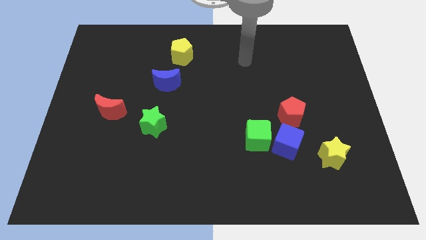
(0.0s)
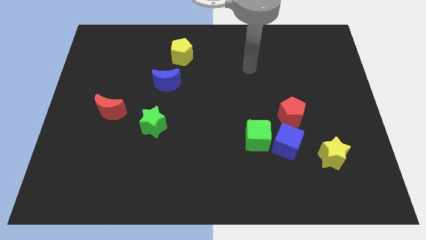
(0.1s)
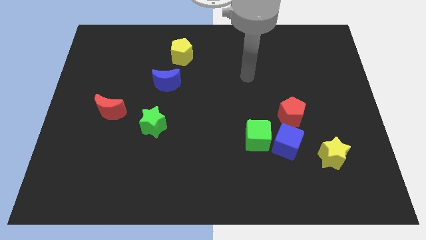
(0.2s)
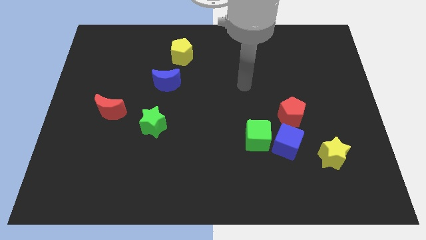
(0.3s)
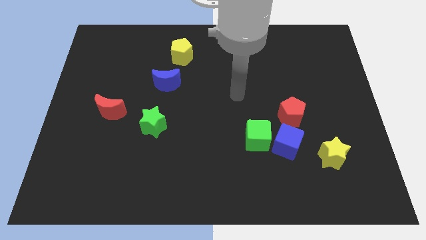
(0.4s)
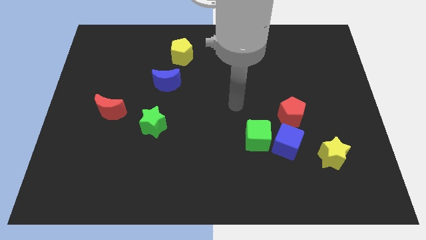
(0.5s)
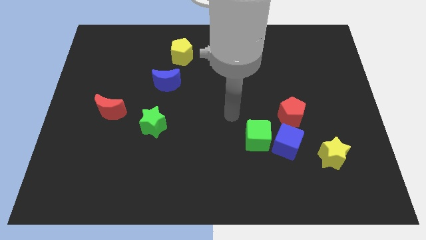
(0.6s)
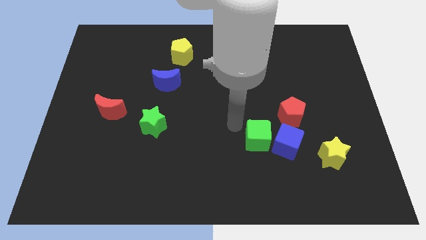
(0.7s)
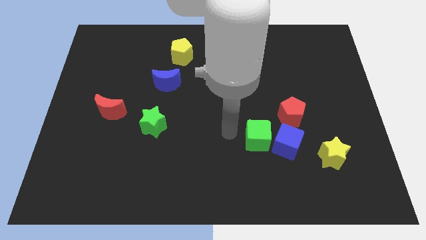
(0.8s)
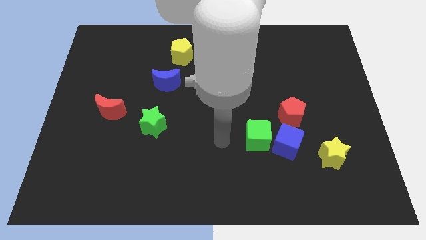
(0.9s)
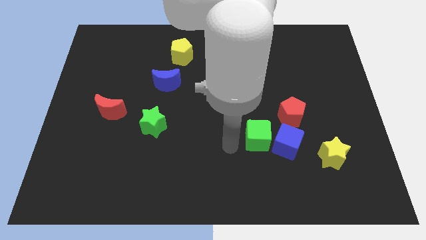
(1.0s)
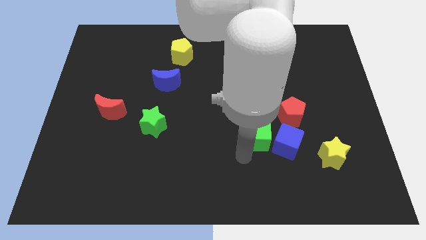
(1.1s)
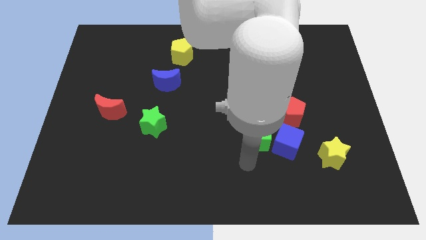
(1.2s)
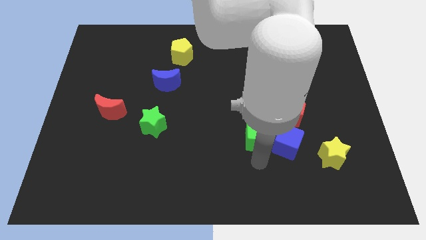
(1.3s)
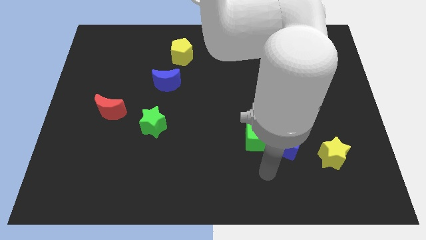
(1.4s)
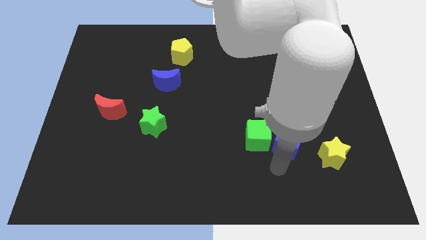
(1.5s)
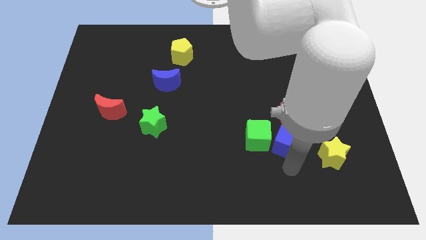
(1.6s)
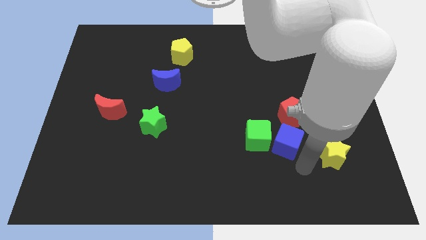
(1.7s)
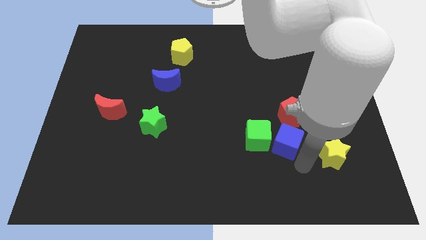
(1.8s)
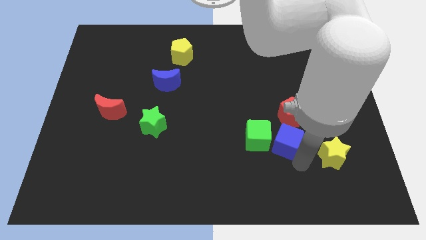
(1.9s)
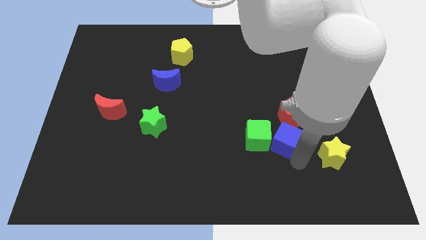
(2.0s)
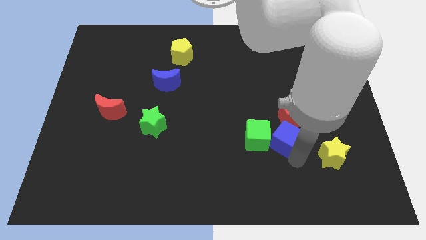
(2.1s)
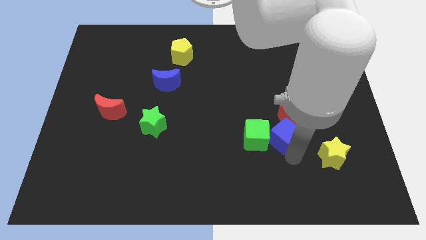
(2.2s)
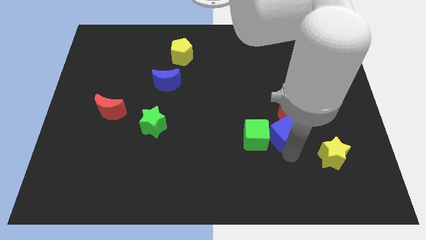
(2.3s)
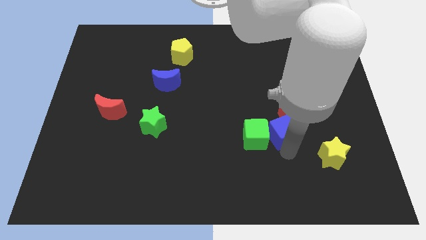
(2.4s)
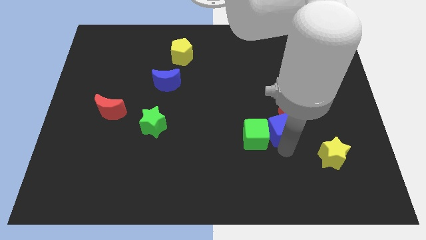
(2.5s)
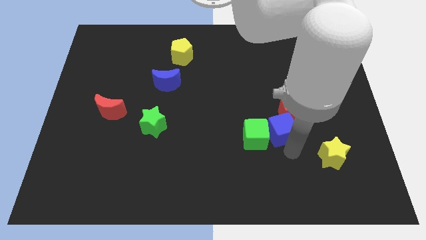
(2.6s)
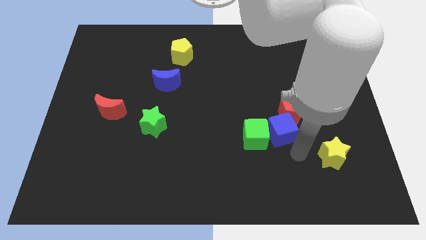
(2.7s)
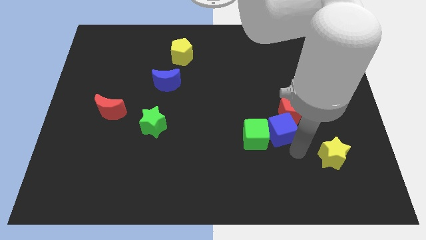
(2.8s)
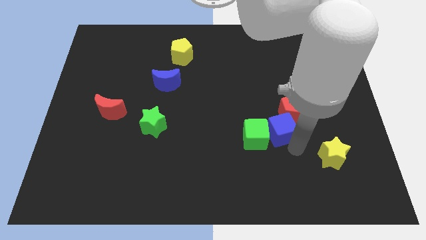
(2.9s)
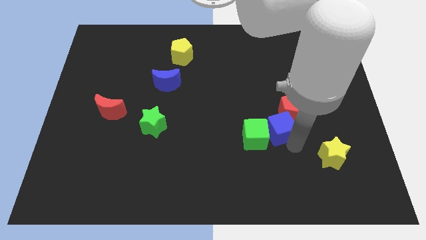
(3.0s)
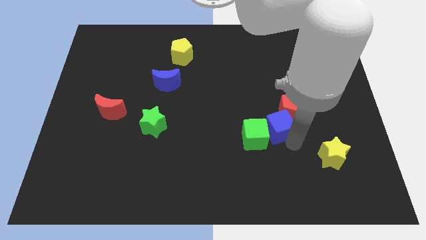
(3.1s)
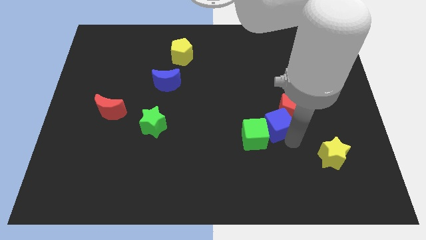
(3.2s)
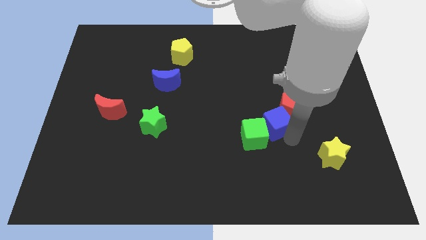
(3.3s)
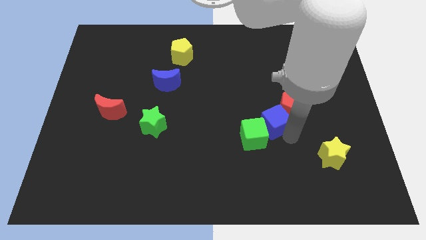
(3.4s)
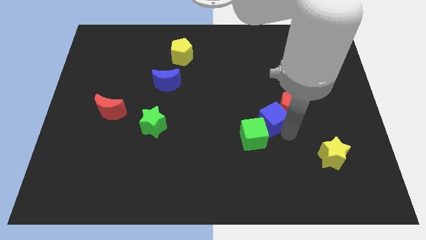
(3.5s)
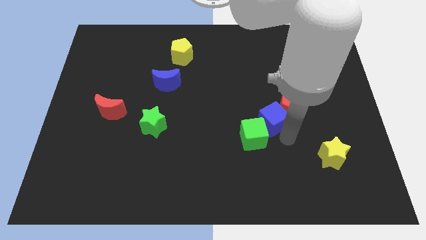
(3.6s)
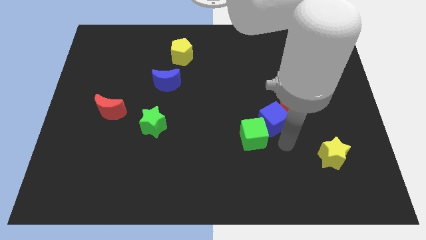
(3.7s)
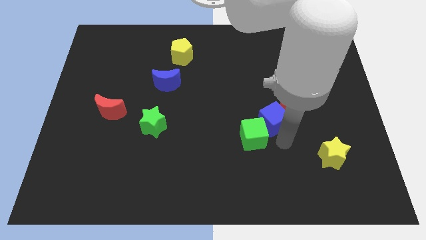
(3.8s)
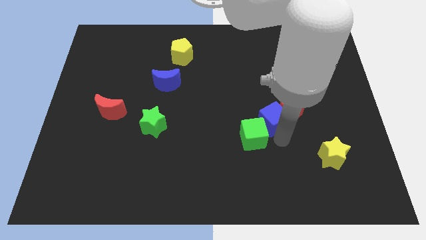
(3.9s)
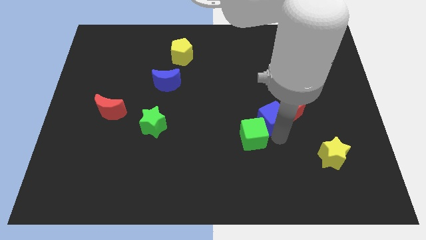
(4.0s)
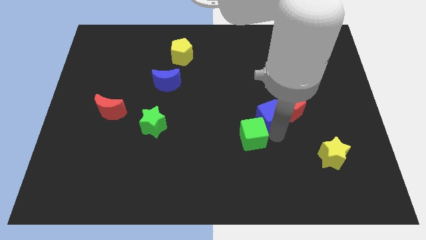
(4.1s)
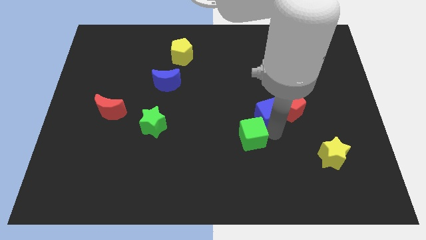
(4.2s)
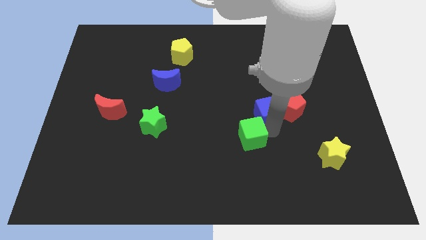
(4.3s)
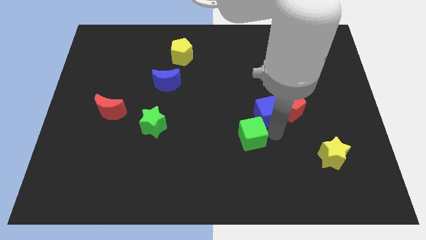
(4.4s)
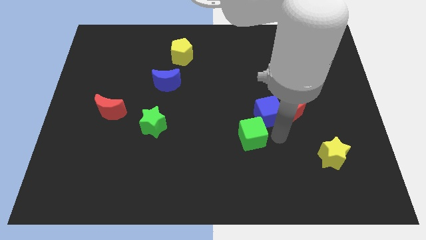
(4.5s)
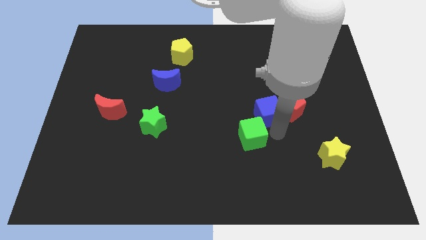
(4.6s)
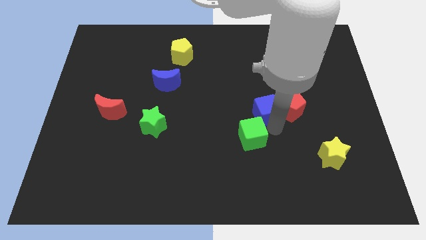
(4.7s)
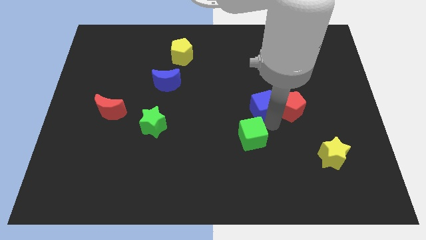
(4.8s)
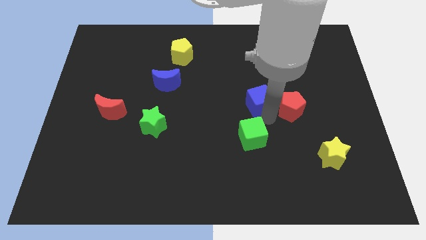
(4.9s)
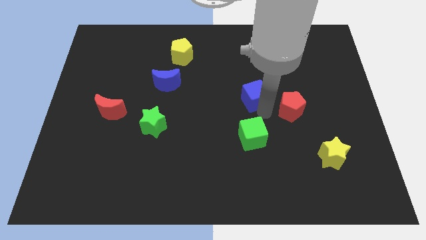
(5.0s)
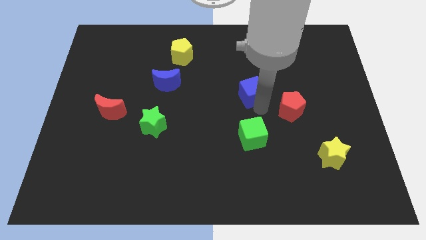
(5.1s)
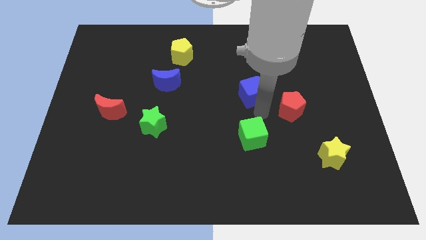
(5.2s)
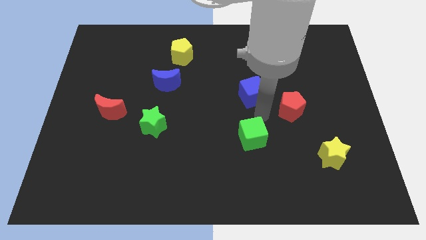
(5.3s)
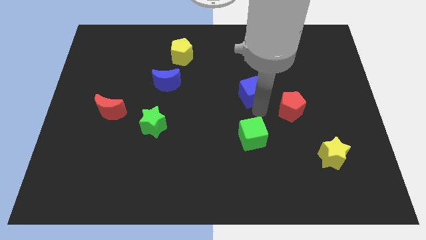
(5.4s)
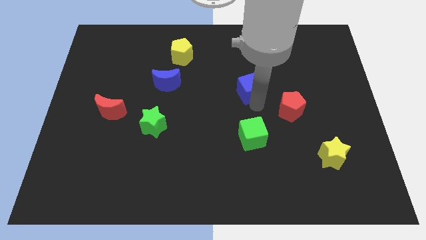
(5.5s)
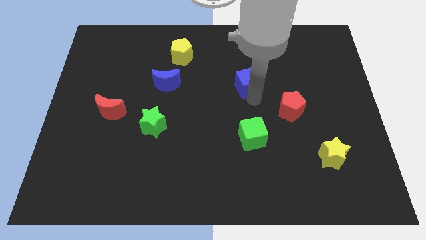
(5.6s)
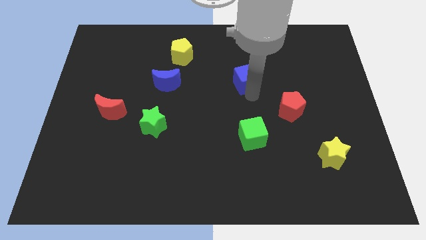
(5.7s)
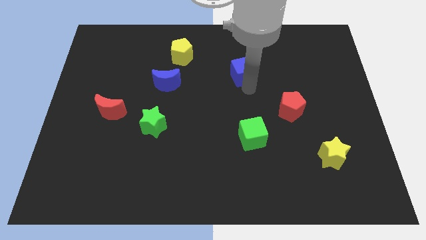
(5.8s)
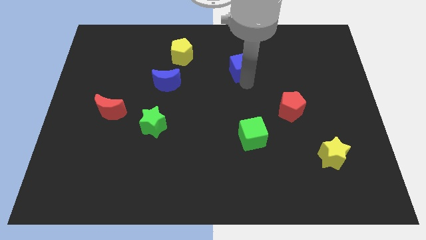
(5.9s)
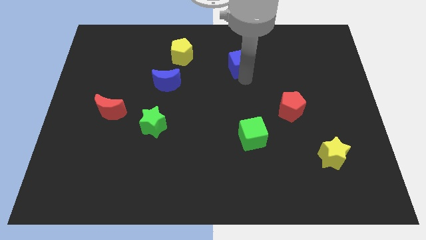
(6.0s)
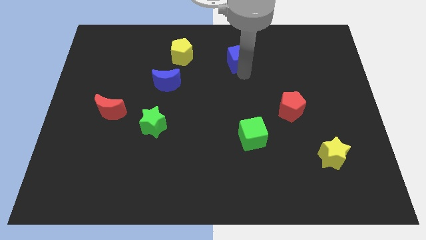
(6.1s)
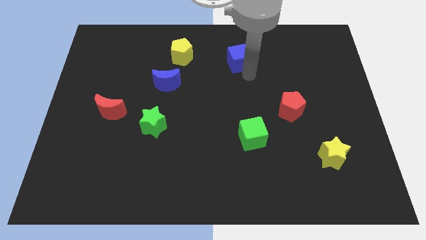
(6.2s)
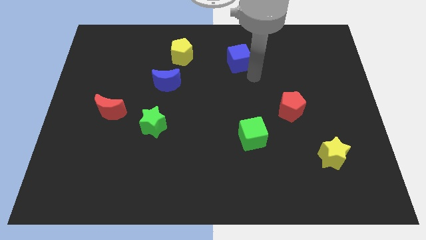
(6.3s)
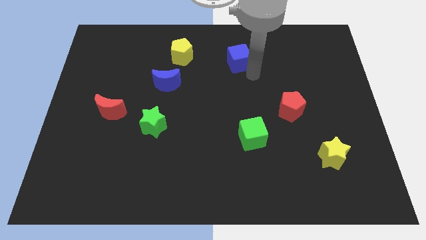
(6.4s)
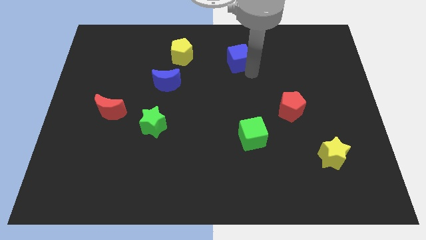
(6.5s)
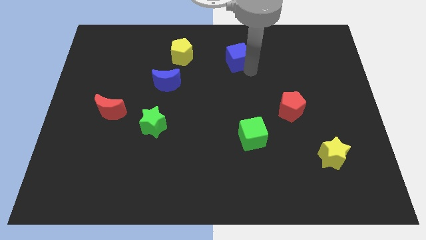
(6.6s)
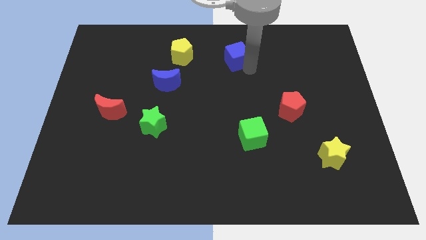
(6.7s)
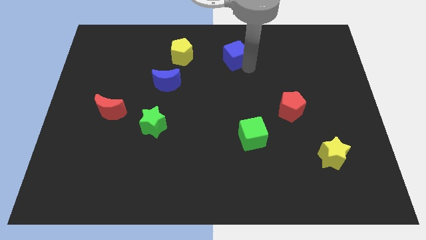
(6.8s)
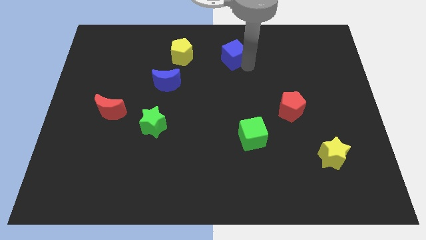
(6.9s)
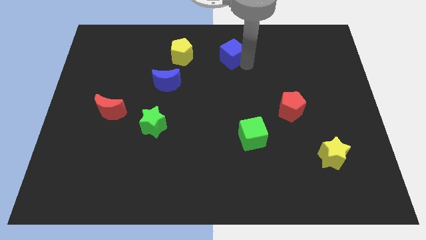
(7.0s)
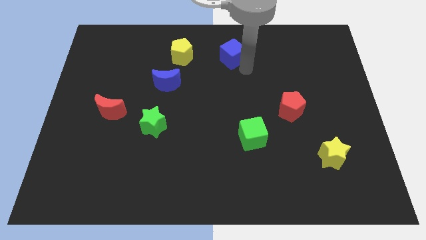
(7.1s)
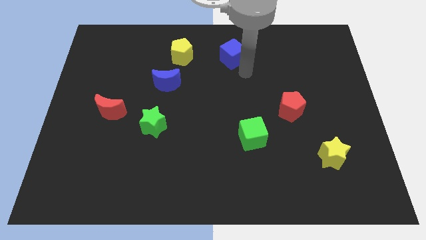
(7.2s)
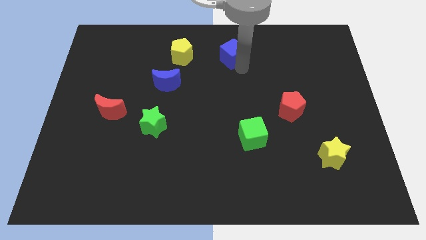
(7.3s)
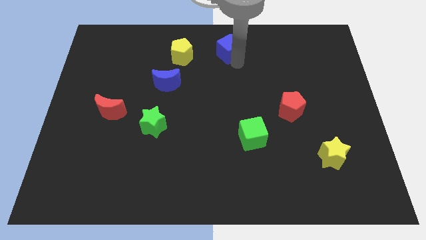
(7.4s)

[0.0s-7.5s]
put the blue cube to the top
